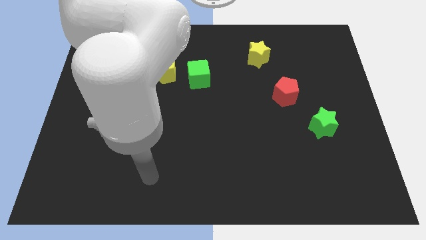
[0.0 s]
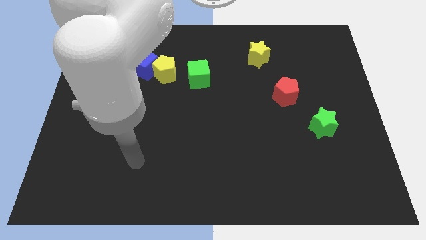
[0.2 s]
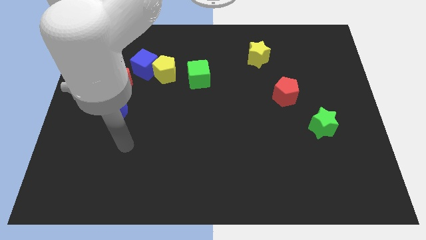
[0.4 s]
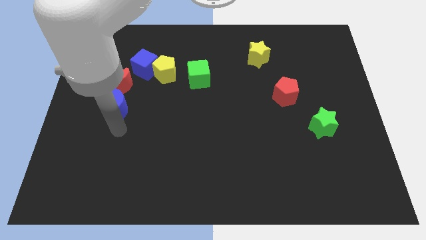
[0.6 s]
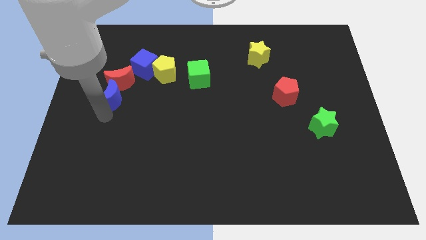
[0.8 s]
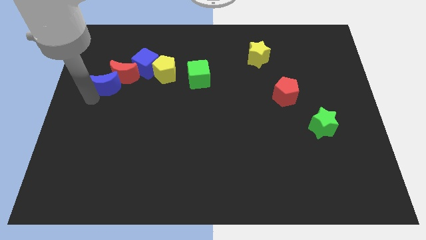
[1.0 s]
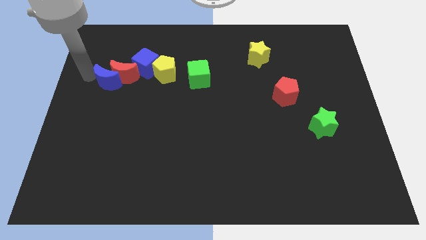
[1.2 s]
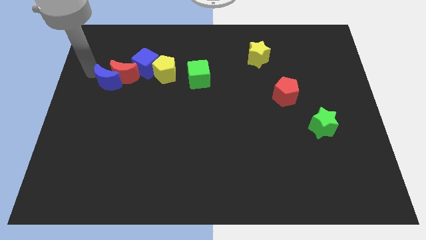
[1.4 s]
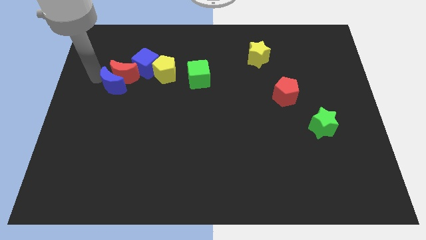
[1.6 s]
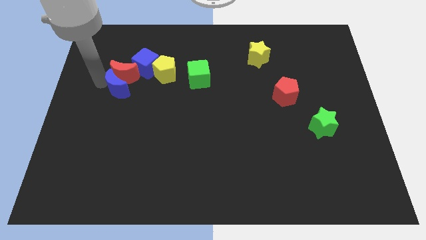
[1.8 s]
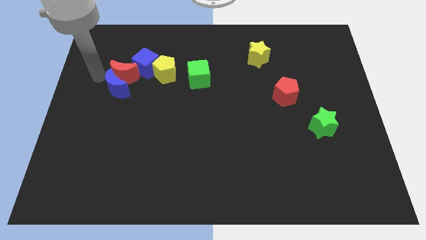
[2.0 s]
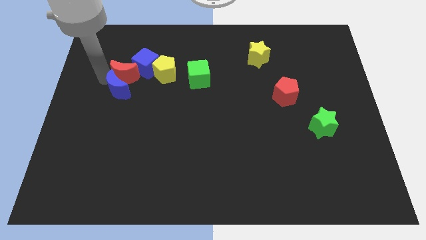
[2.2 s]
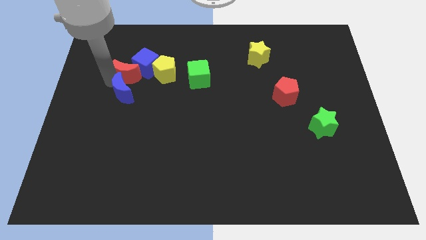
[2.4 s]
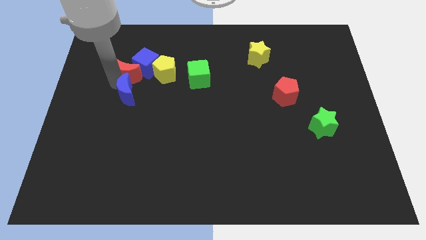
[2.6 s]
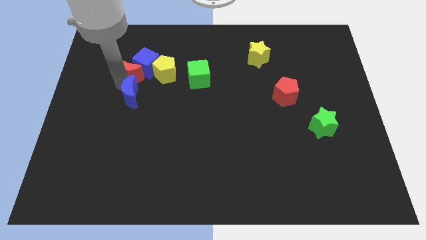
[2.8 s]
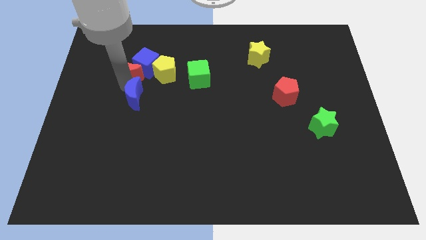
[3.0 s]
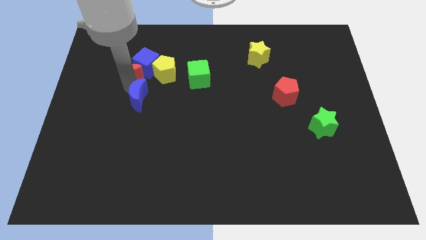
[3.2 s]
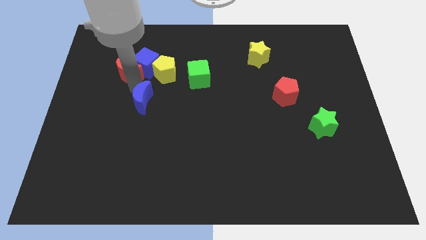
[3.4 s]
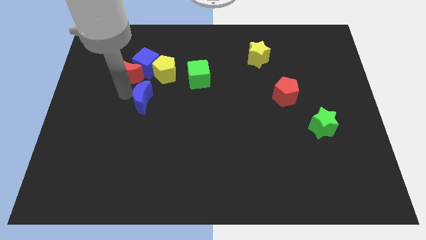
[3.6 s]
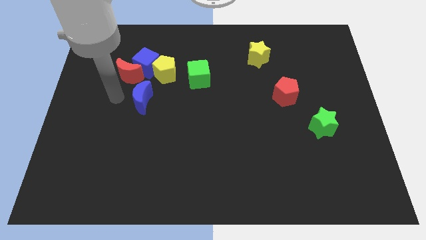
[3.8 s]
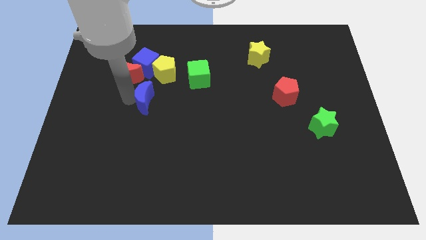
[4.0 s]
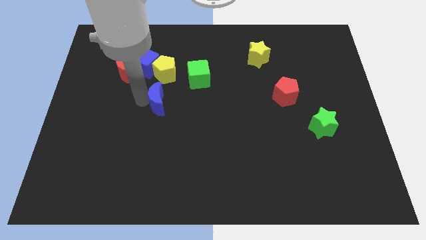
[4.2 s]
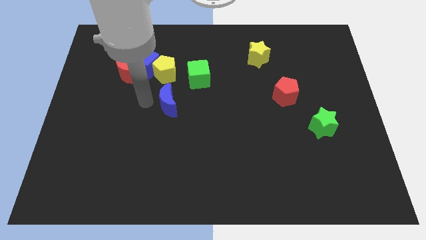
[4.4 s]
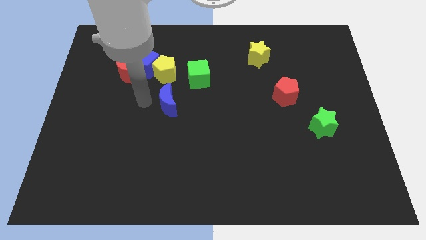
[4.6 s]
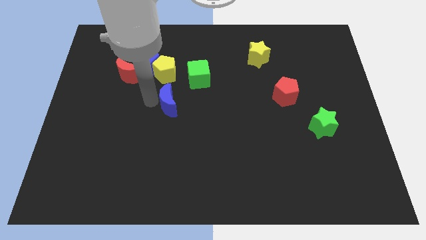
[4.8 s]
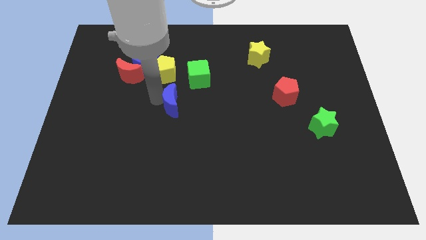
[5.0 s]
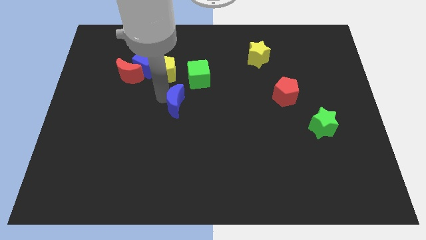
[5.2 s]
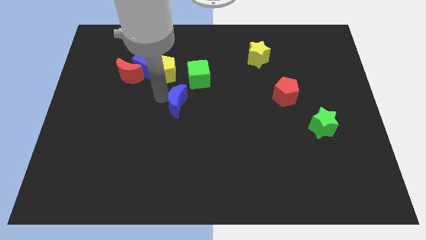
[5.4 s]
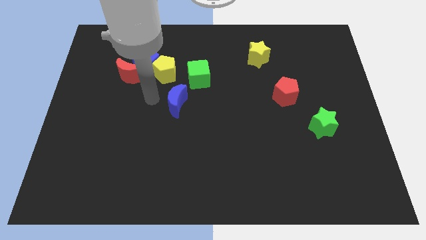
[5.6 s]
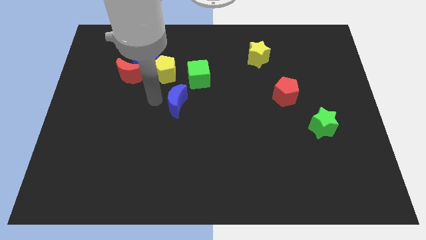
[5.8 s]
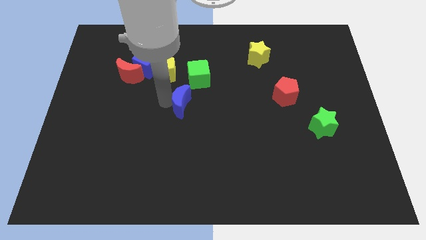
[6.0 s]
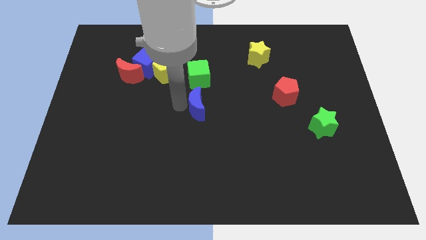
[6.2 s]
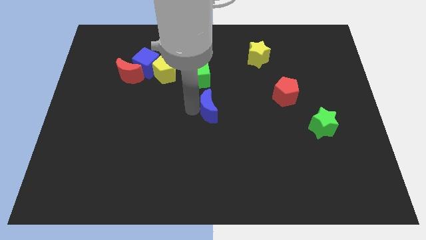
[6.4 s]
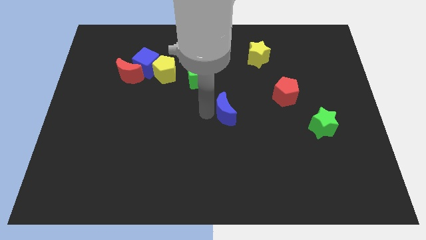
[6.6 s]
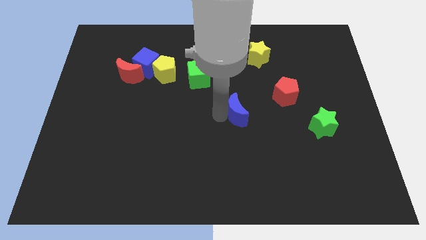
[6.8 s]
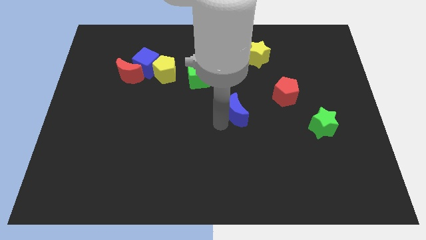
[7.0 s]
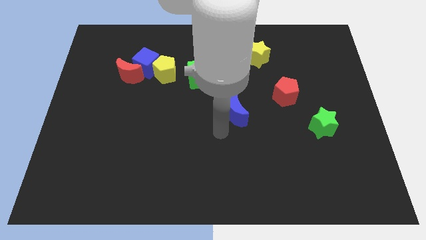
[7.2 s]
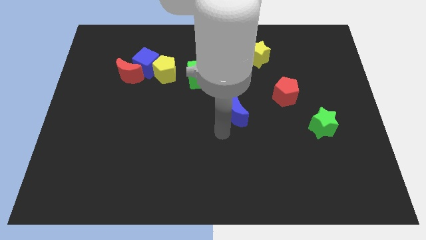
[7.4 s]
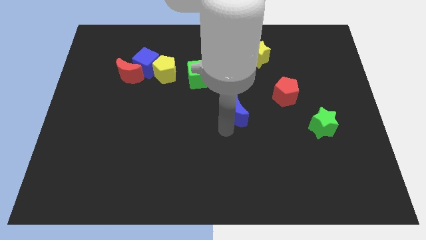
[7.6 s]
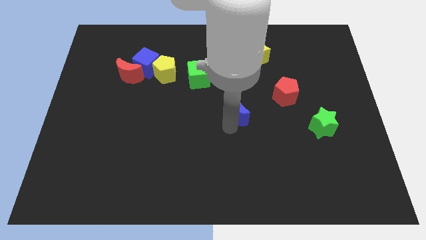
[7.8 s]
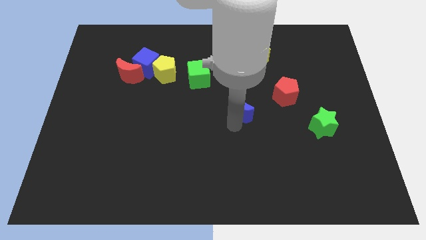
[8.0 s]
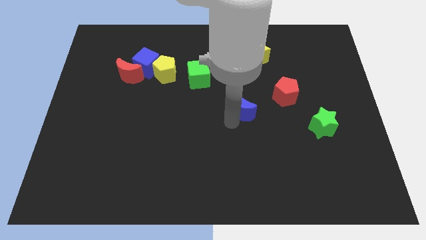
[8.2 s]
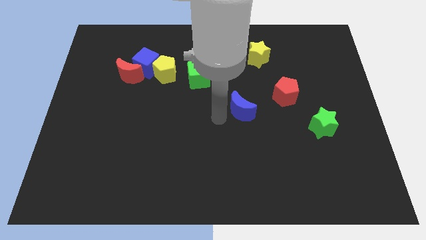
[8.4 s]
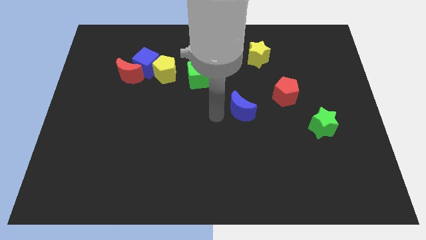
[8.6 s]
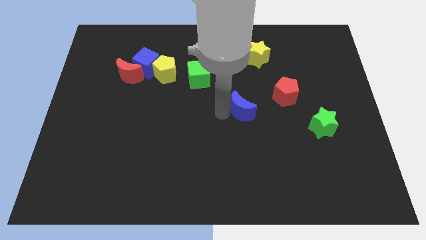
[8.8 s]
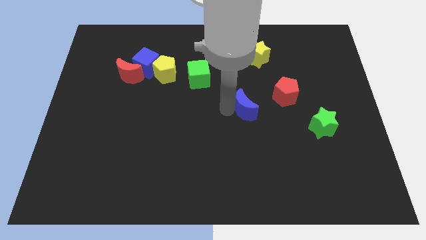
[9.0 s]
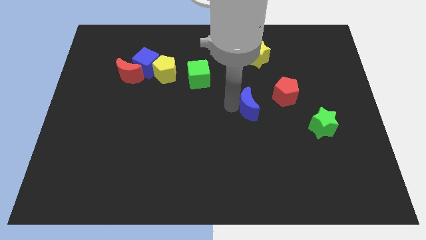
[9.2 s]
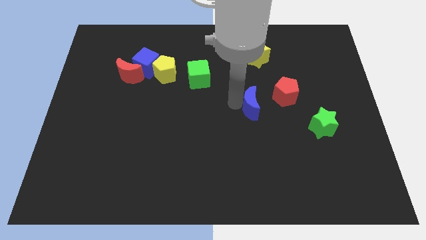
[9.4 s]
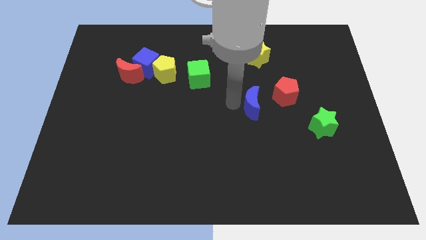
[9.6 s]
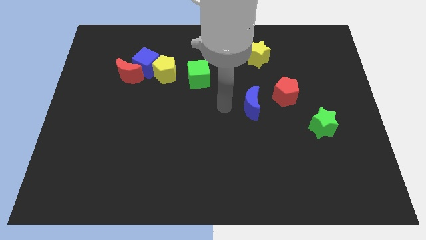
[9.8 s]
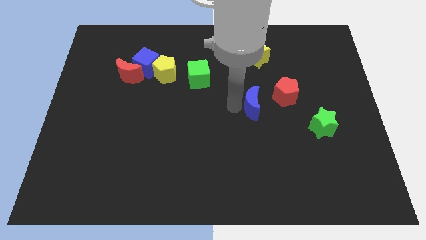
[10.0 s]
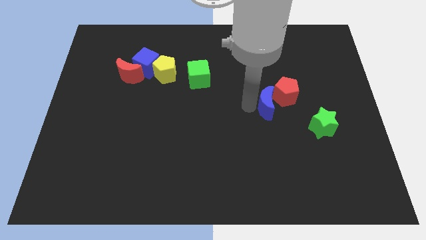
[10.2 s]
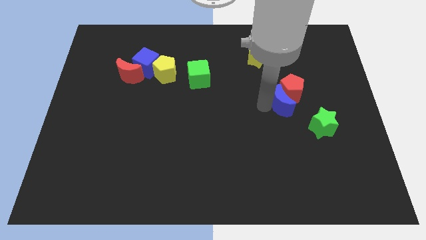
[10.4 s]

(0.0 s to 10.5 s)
push the blue moon to the top left of the green star

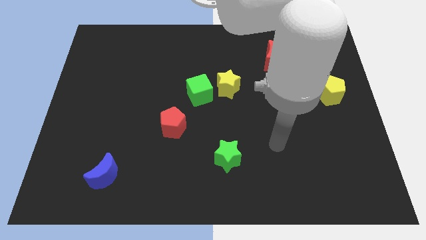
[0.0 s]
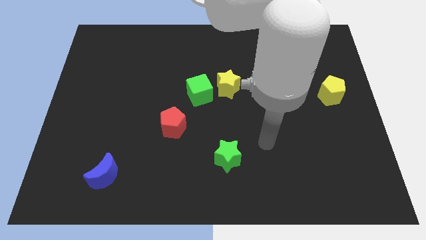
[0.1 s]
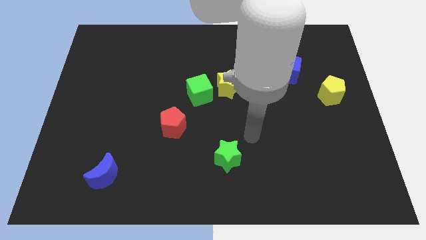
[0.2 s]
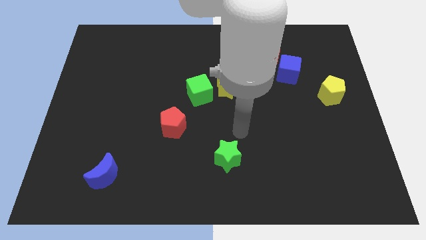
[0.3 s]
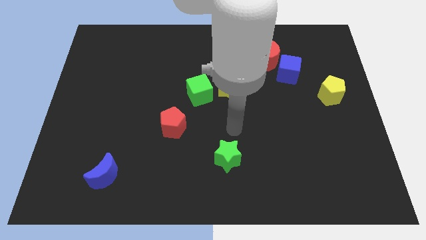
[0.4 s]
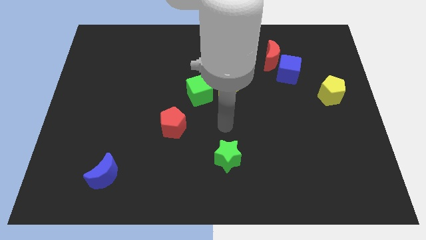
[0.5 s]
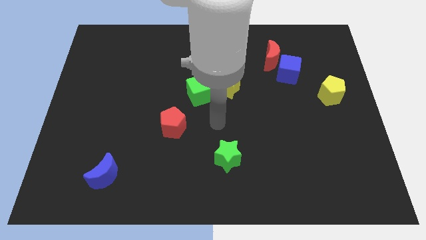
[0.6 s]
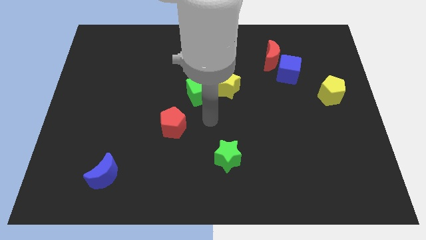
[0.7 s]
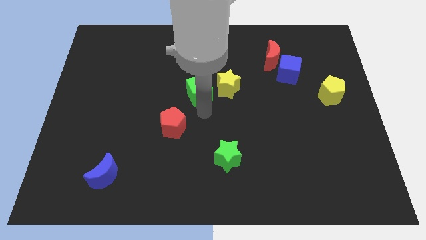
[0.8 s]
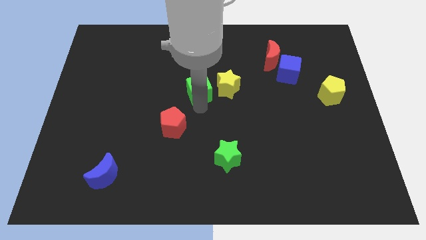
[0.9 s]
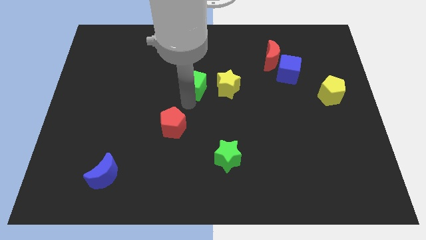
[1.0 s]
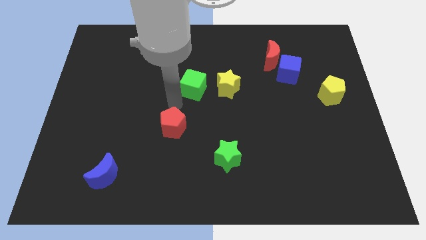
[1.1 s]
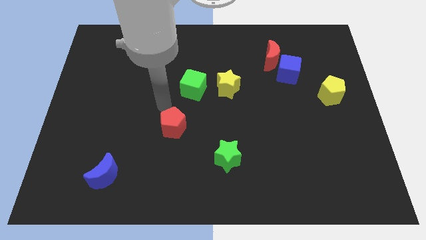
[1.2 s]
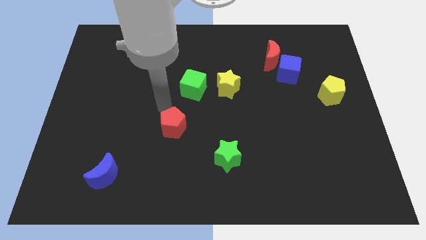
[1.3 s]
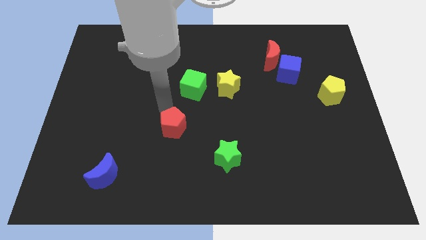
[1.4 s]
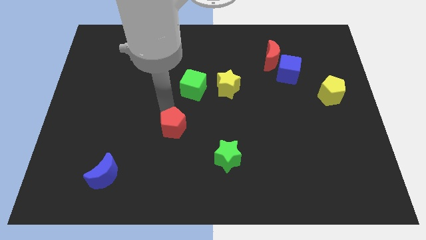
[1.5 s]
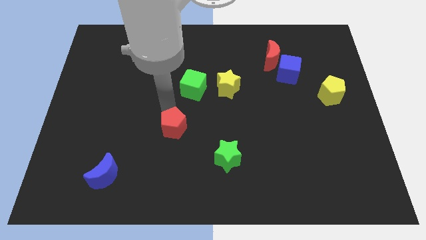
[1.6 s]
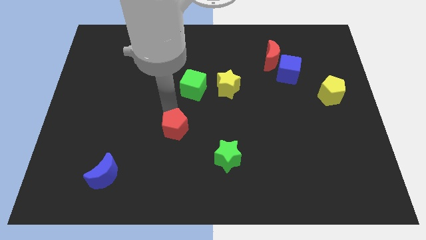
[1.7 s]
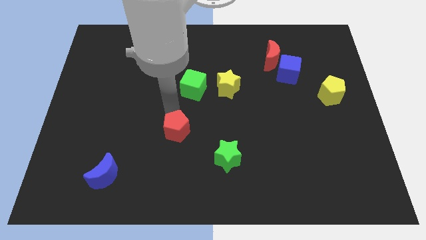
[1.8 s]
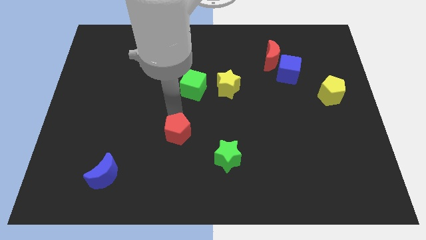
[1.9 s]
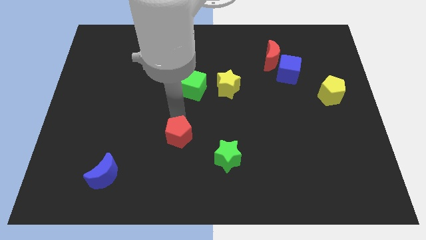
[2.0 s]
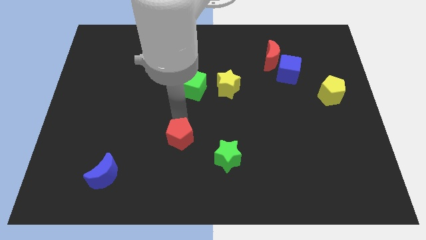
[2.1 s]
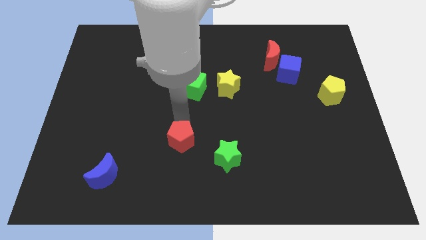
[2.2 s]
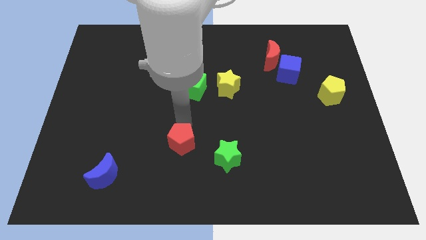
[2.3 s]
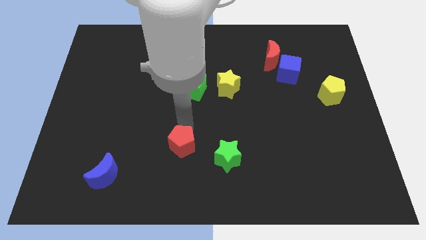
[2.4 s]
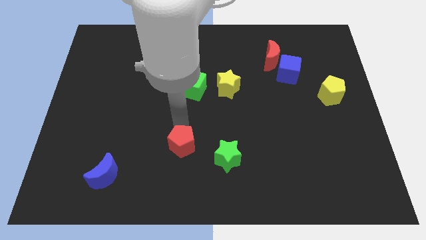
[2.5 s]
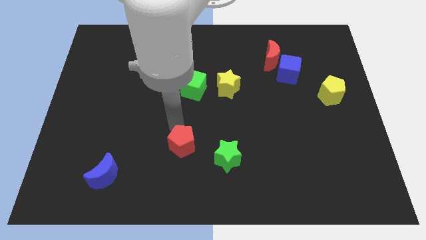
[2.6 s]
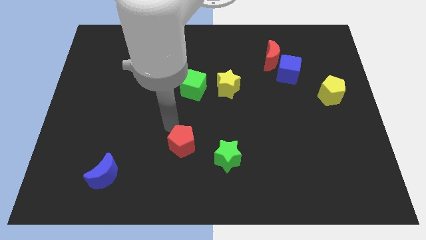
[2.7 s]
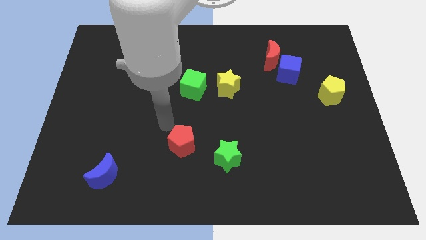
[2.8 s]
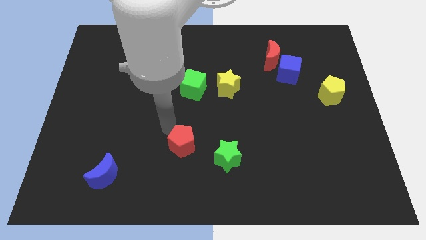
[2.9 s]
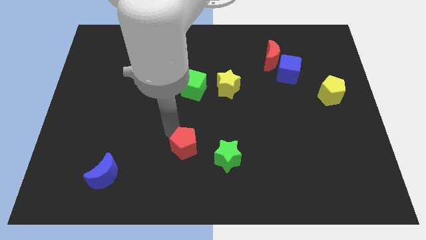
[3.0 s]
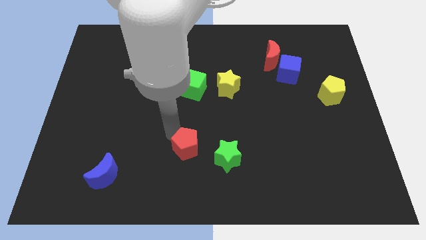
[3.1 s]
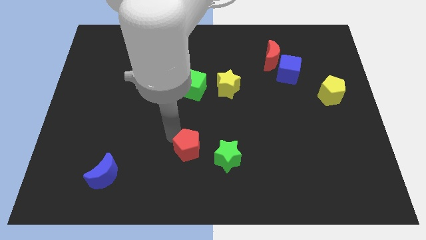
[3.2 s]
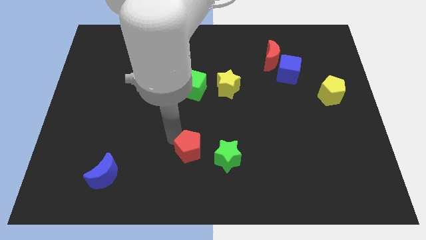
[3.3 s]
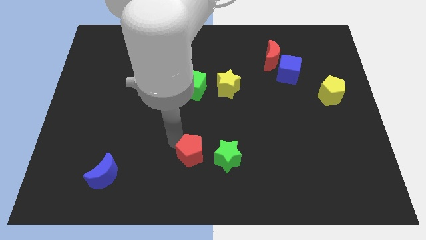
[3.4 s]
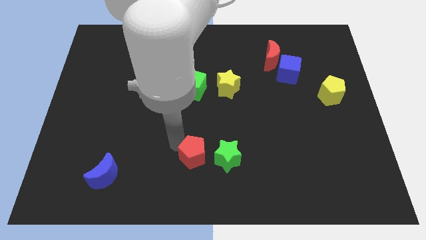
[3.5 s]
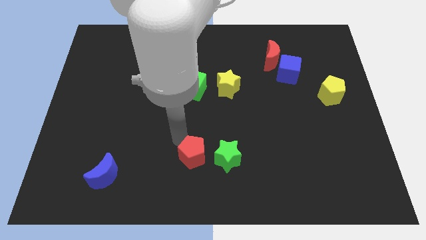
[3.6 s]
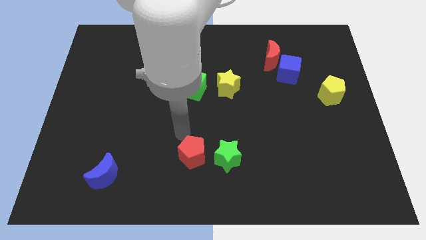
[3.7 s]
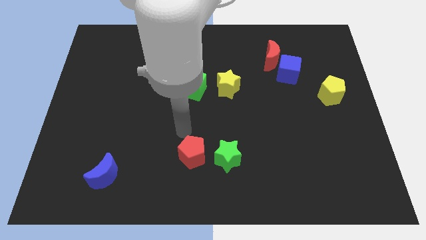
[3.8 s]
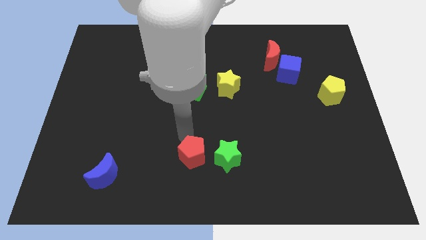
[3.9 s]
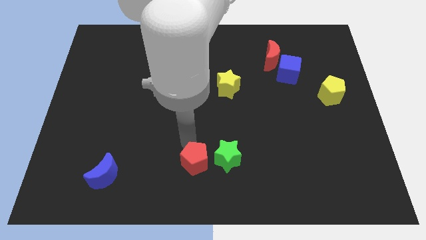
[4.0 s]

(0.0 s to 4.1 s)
slide the red pentagon diagonally down and to the left of the green star
